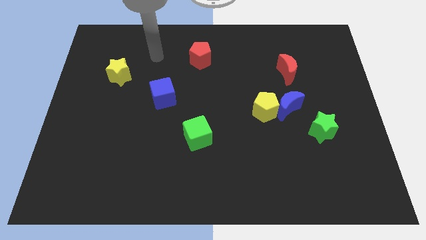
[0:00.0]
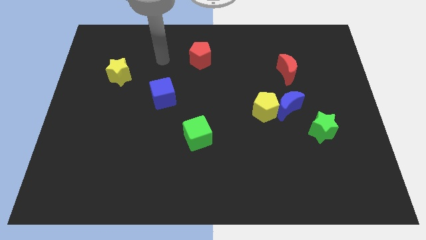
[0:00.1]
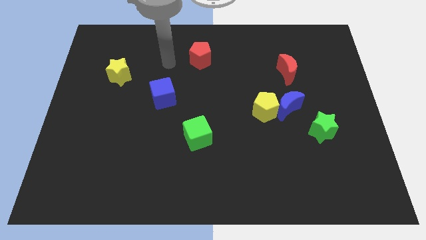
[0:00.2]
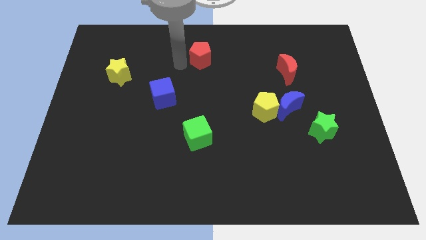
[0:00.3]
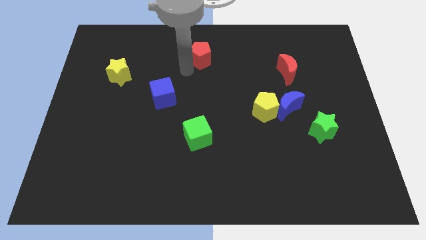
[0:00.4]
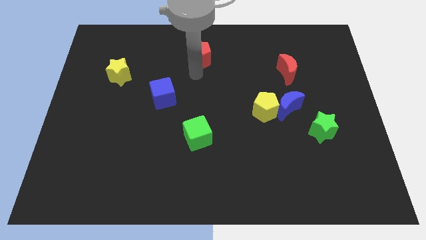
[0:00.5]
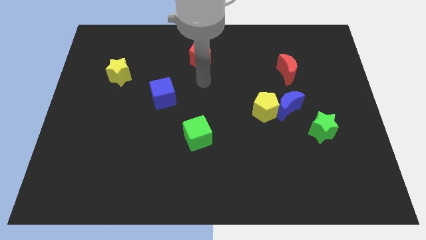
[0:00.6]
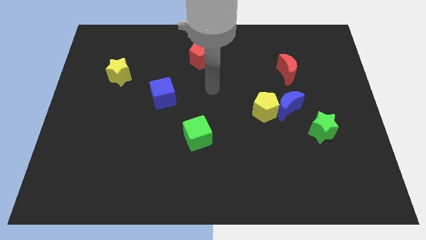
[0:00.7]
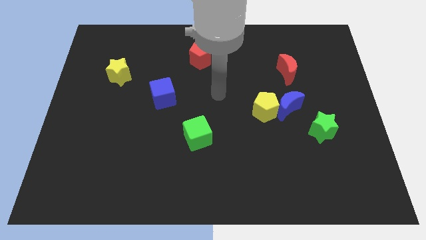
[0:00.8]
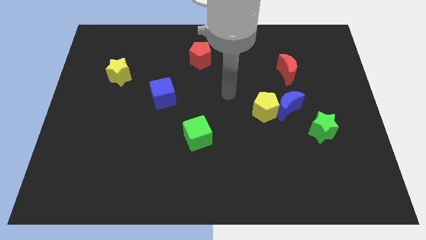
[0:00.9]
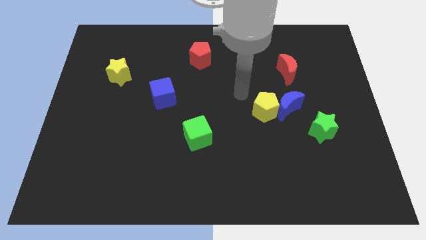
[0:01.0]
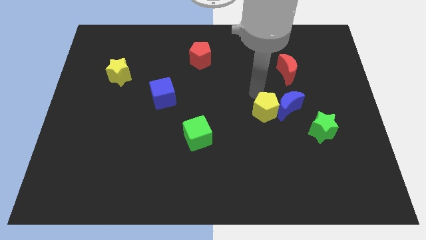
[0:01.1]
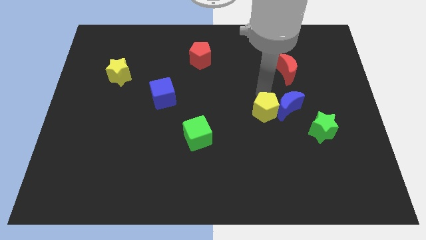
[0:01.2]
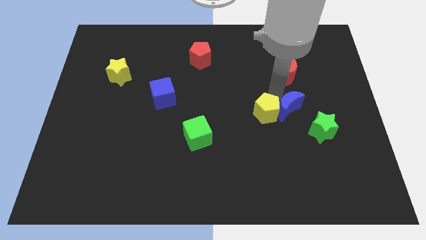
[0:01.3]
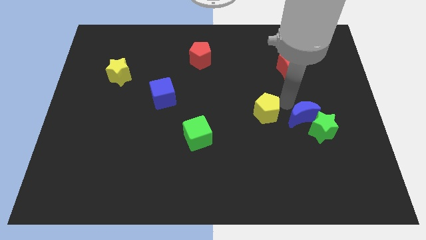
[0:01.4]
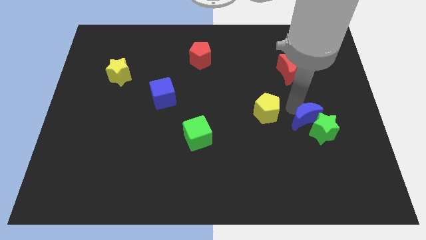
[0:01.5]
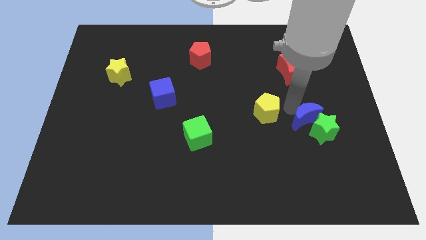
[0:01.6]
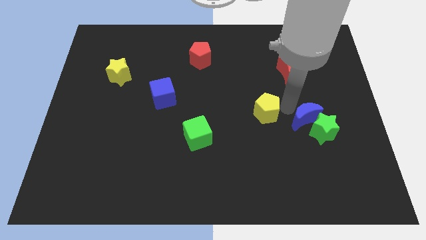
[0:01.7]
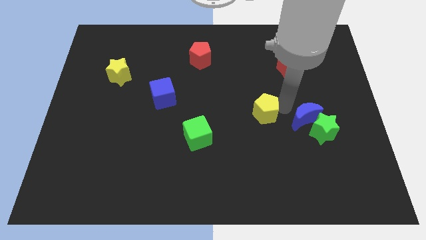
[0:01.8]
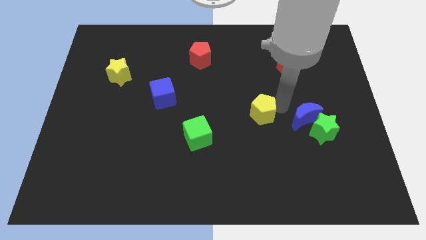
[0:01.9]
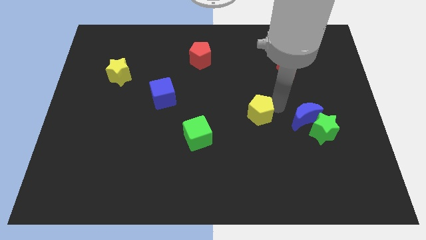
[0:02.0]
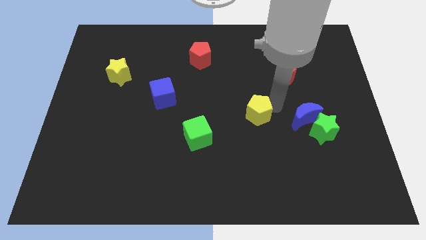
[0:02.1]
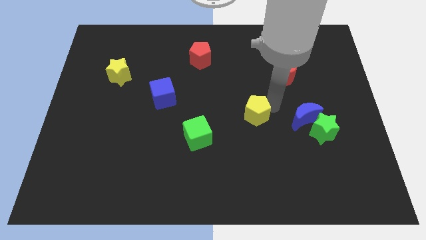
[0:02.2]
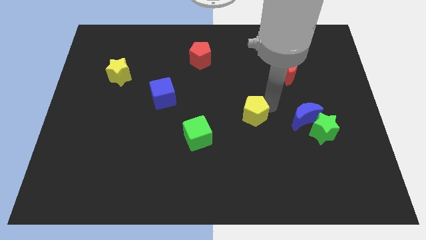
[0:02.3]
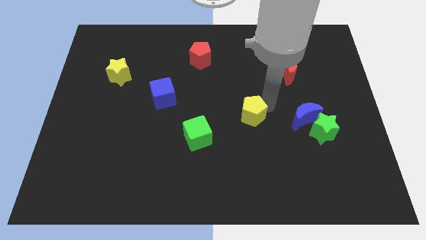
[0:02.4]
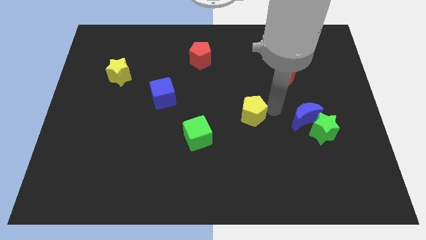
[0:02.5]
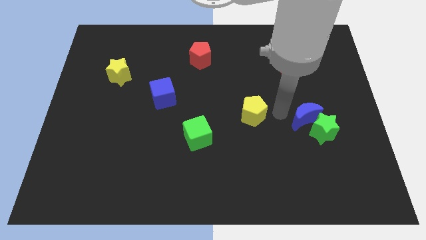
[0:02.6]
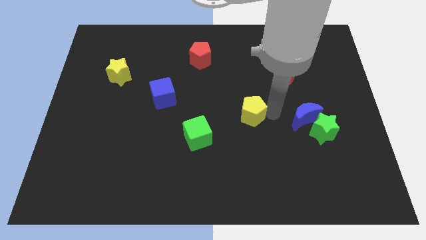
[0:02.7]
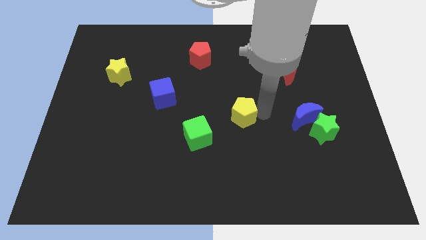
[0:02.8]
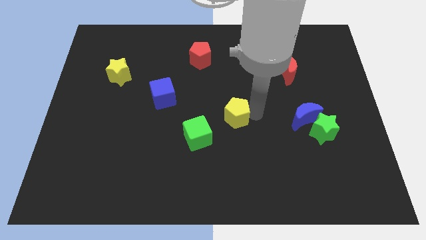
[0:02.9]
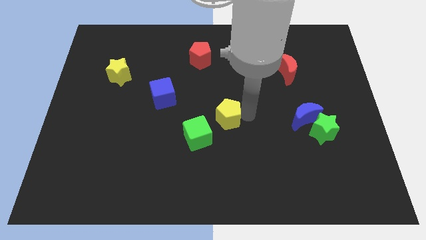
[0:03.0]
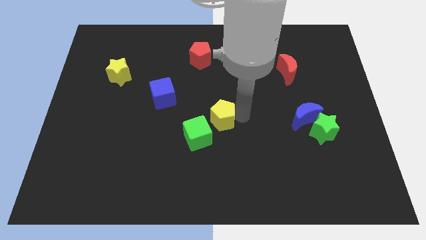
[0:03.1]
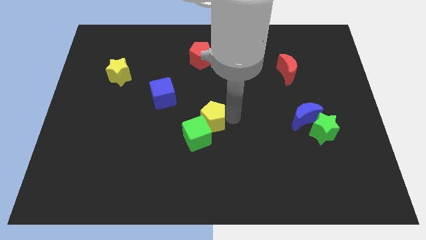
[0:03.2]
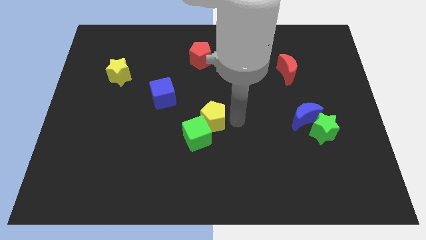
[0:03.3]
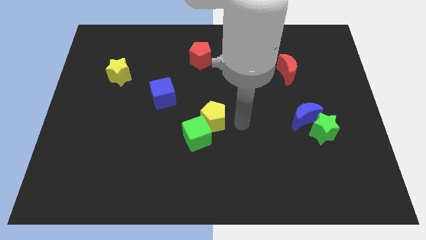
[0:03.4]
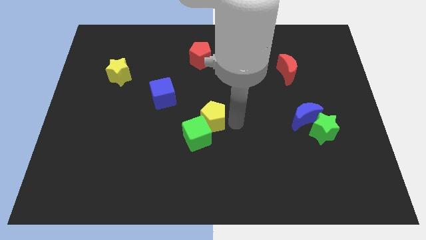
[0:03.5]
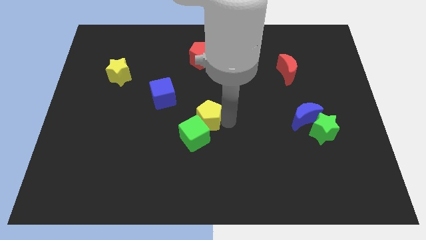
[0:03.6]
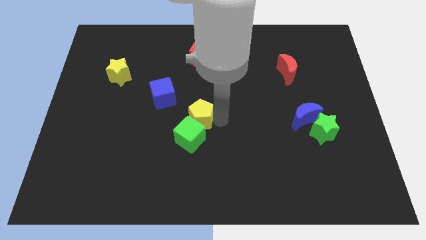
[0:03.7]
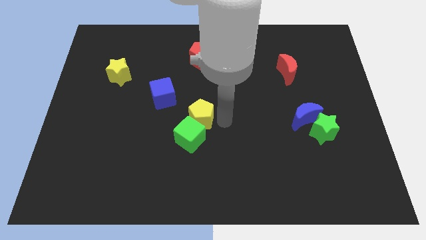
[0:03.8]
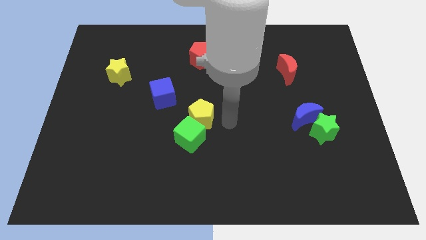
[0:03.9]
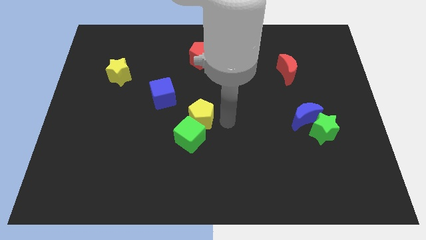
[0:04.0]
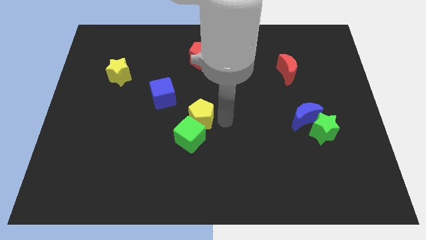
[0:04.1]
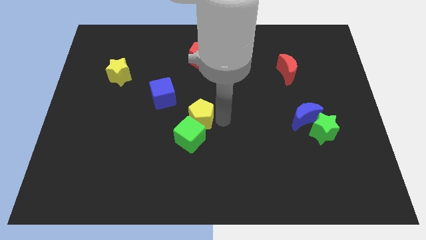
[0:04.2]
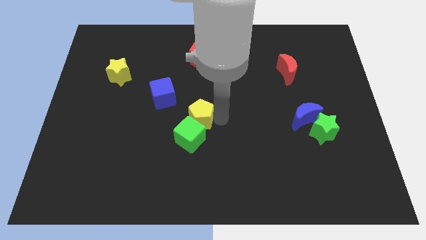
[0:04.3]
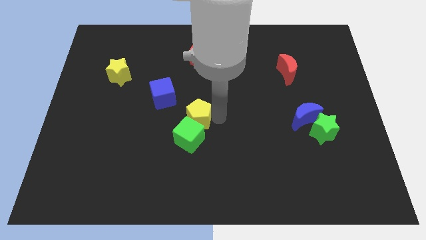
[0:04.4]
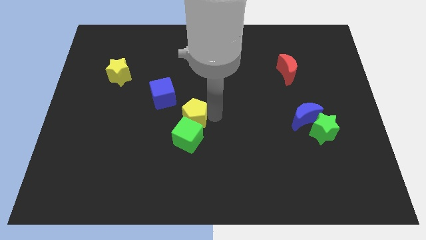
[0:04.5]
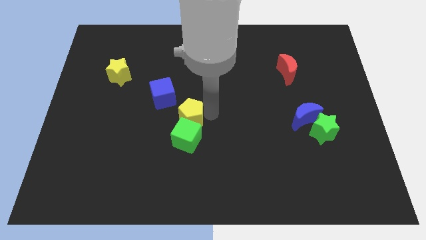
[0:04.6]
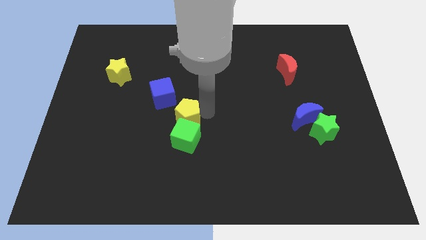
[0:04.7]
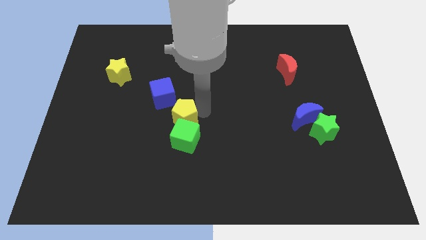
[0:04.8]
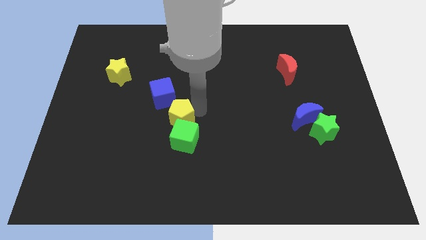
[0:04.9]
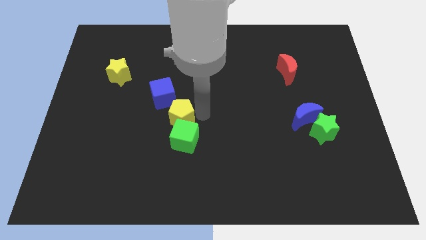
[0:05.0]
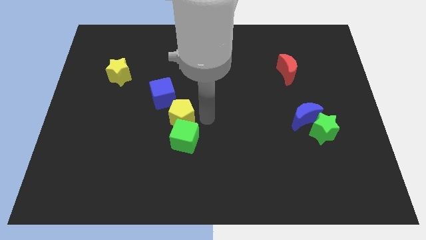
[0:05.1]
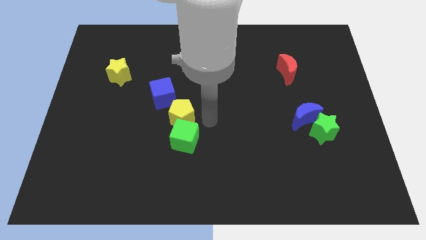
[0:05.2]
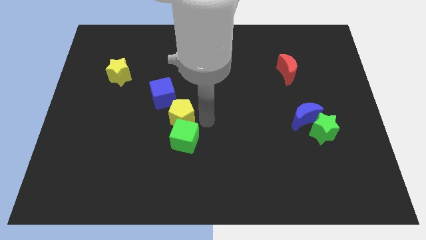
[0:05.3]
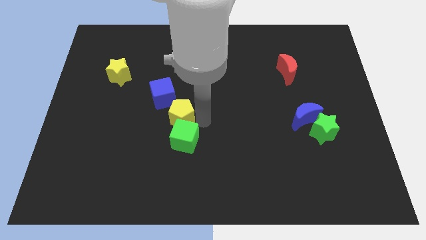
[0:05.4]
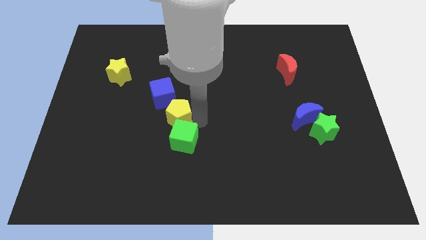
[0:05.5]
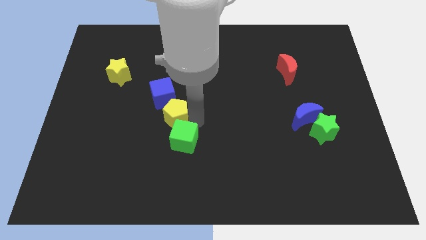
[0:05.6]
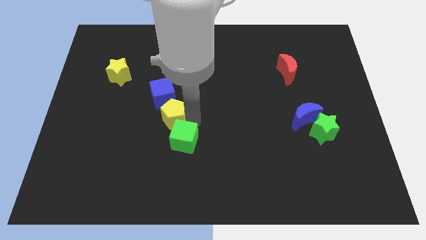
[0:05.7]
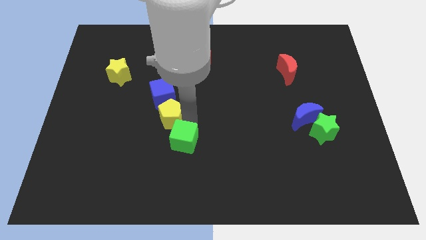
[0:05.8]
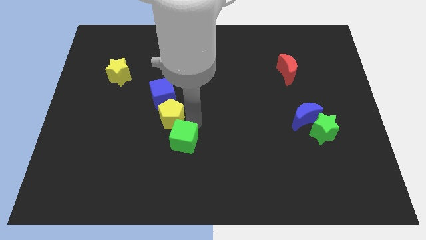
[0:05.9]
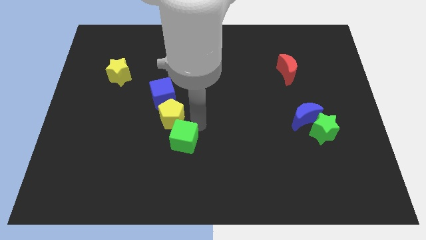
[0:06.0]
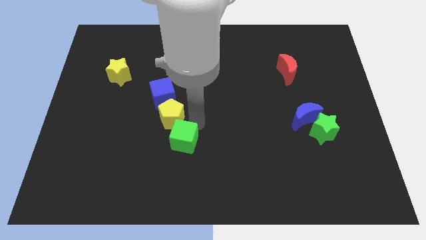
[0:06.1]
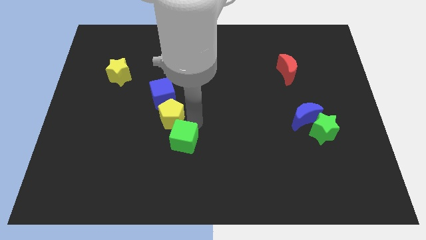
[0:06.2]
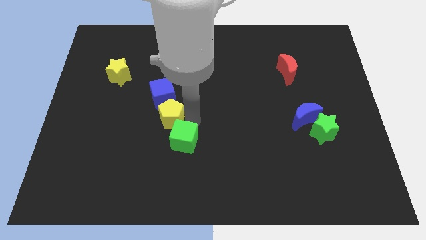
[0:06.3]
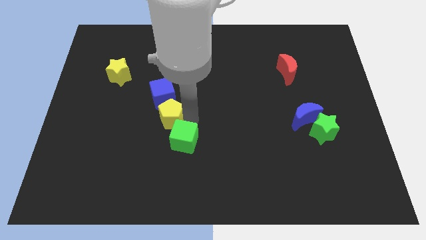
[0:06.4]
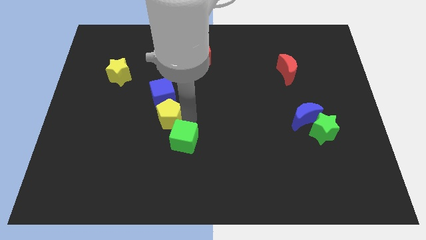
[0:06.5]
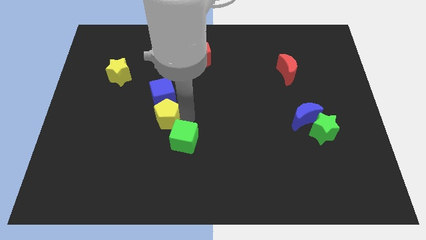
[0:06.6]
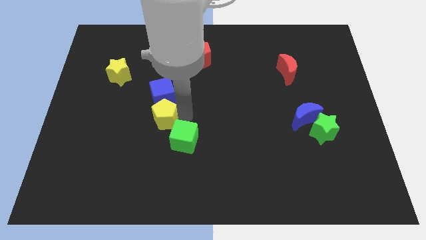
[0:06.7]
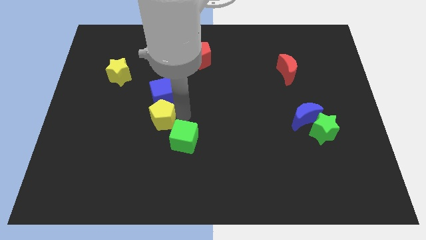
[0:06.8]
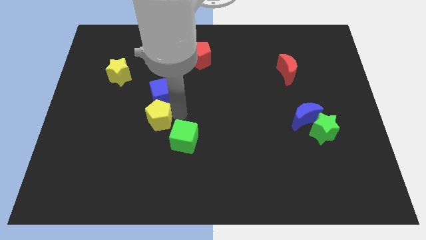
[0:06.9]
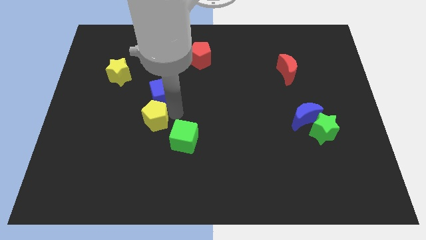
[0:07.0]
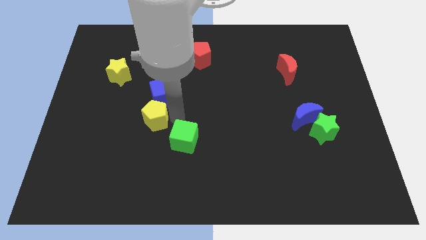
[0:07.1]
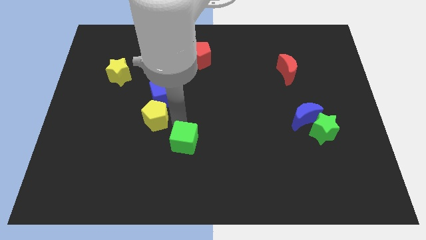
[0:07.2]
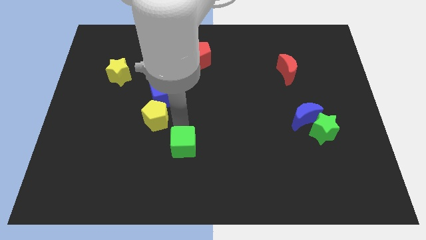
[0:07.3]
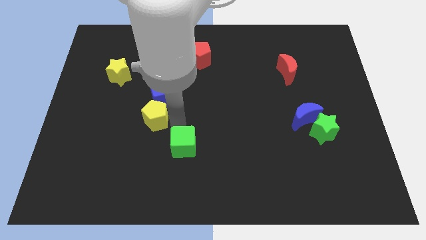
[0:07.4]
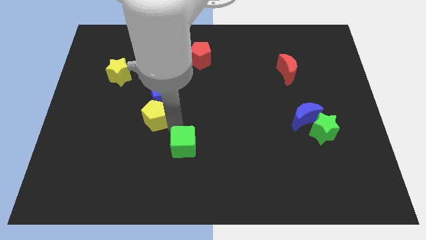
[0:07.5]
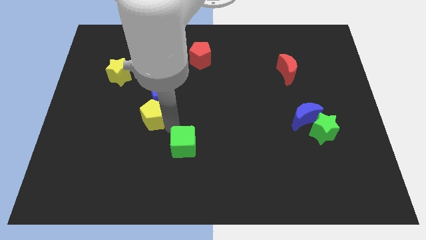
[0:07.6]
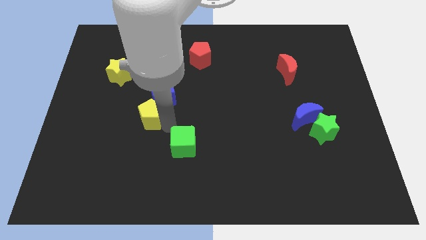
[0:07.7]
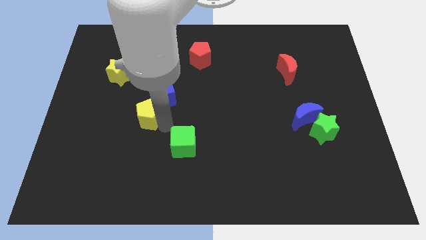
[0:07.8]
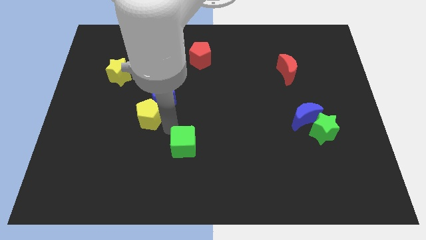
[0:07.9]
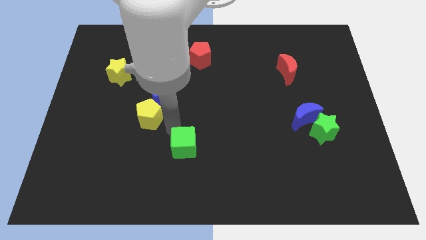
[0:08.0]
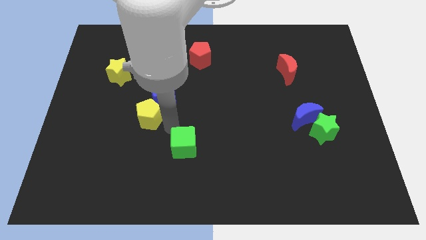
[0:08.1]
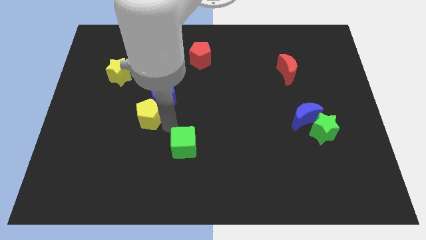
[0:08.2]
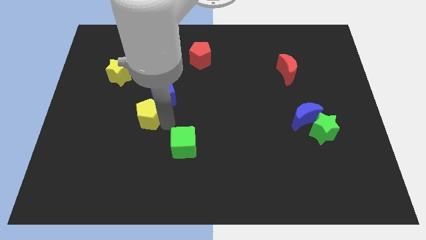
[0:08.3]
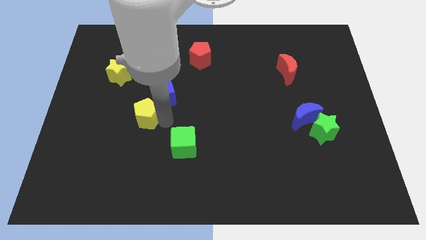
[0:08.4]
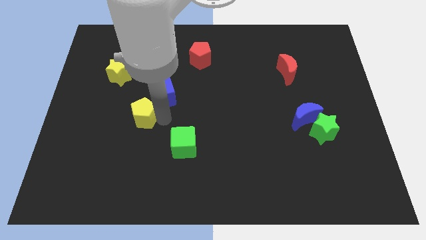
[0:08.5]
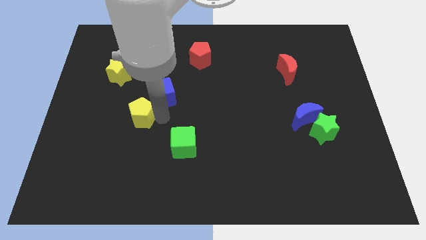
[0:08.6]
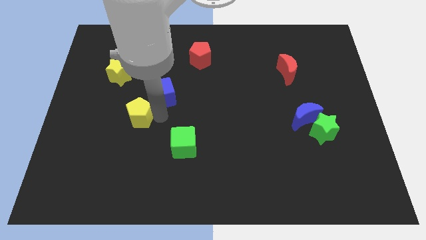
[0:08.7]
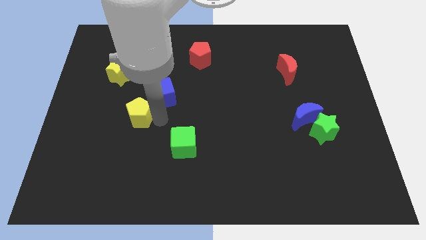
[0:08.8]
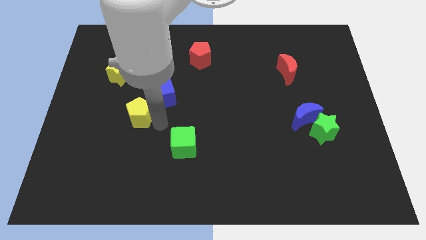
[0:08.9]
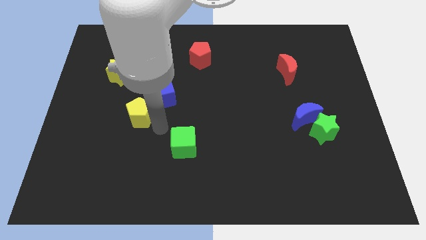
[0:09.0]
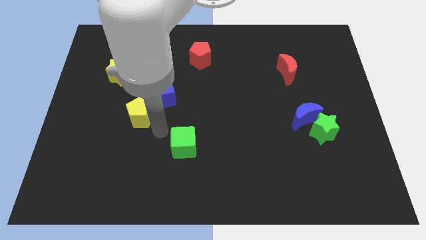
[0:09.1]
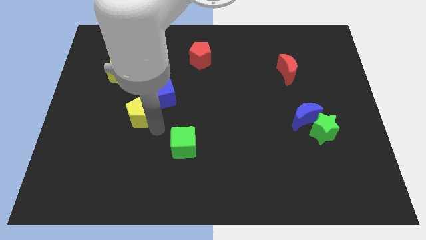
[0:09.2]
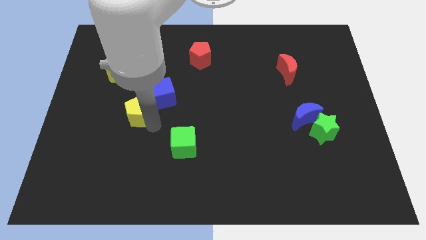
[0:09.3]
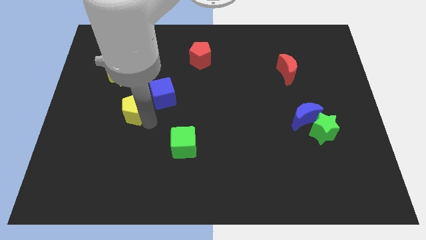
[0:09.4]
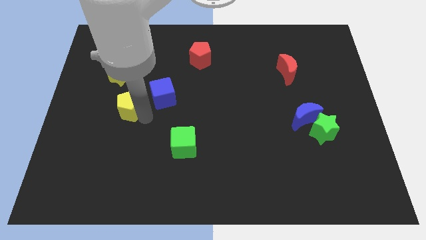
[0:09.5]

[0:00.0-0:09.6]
put the yellow pentagon to the bottom of the yellow star
